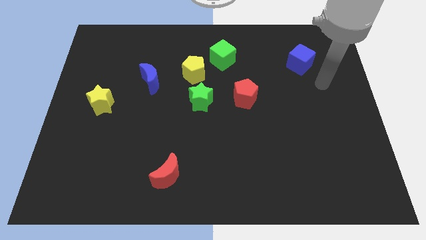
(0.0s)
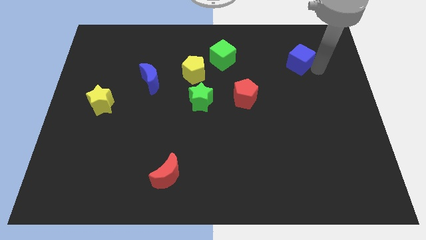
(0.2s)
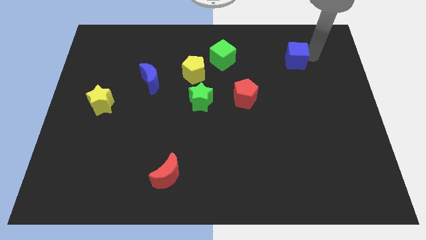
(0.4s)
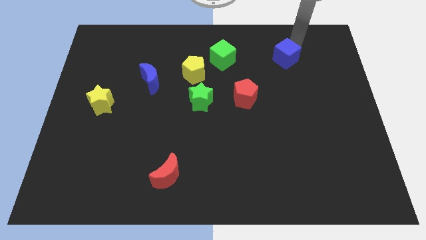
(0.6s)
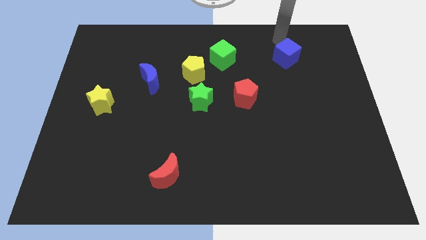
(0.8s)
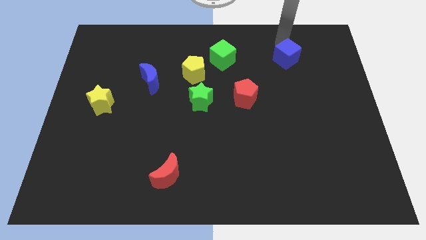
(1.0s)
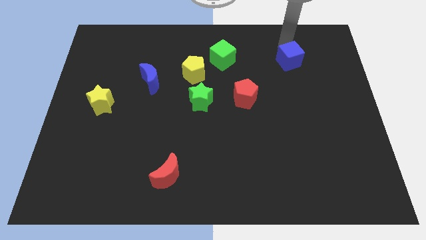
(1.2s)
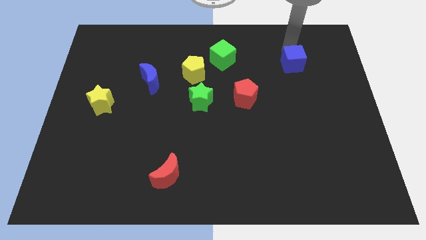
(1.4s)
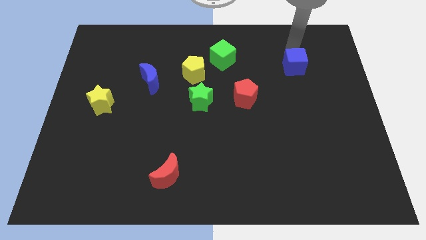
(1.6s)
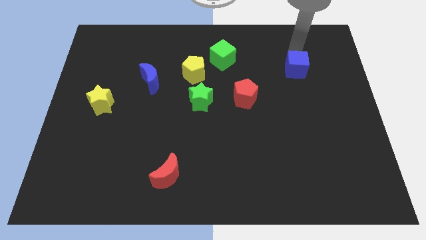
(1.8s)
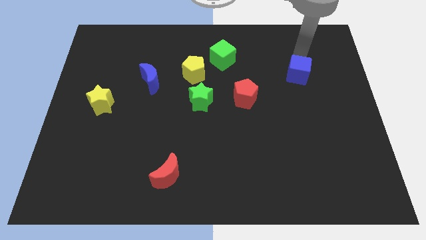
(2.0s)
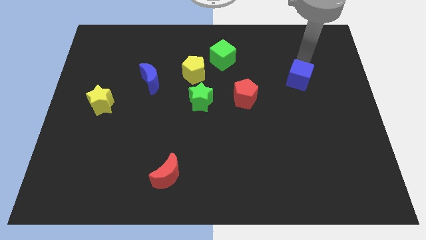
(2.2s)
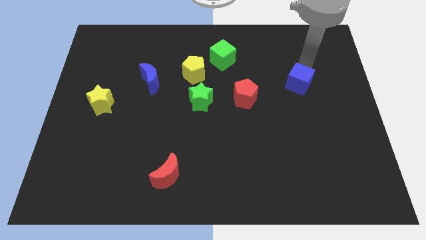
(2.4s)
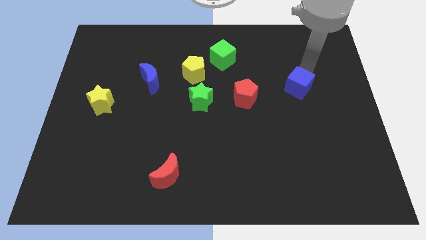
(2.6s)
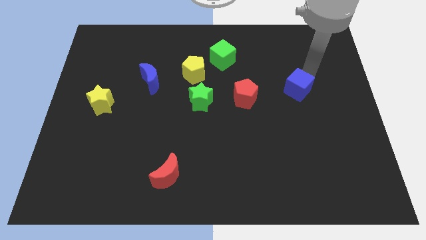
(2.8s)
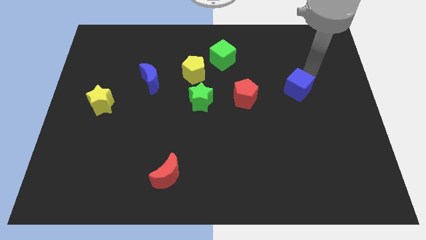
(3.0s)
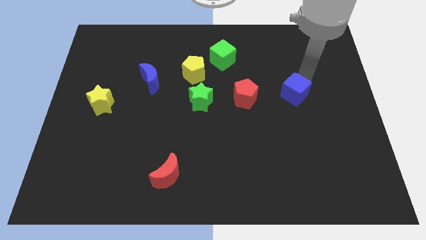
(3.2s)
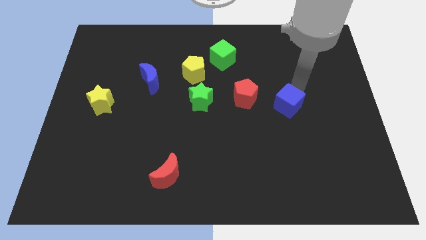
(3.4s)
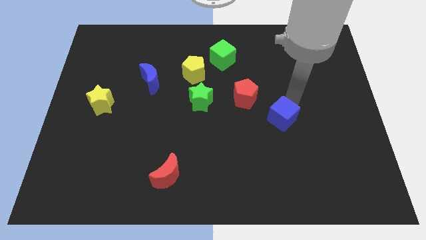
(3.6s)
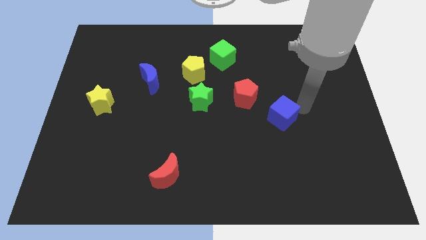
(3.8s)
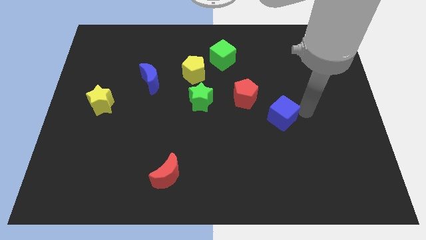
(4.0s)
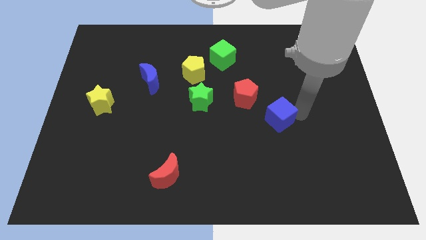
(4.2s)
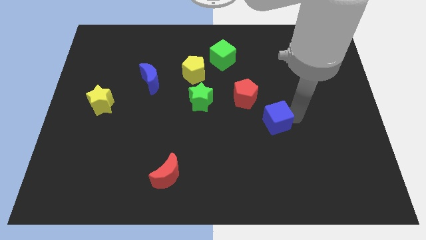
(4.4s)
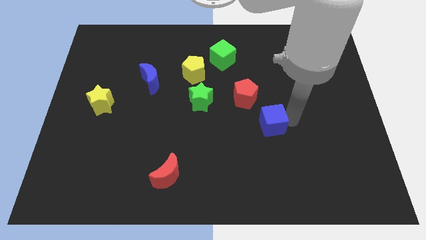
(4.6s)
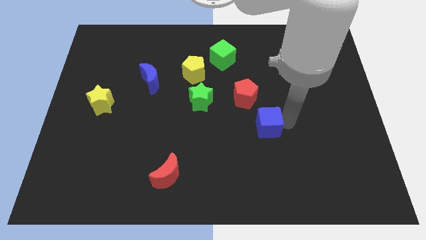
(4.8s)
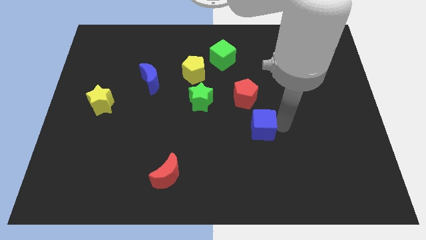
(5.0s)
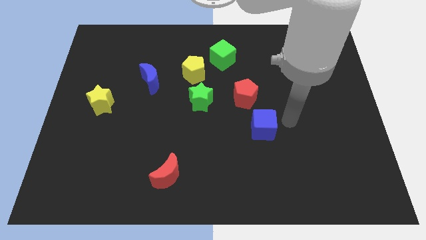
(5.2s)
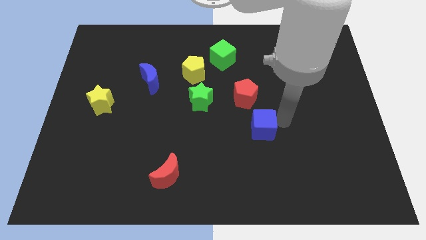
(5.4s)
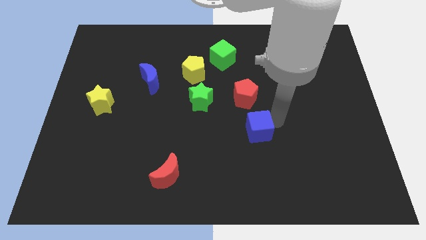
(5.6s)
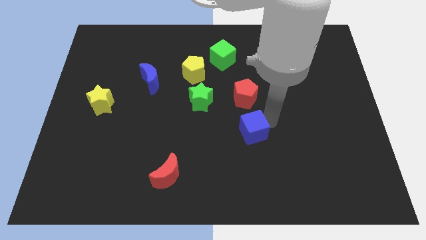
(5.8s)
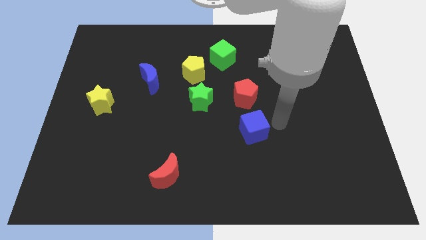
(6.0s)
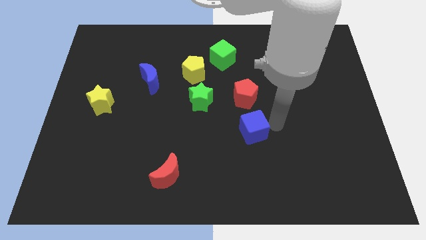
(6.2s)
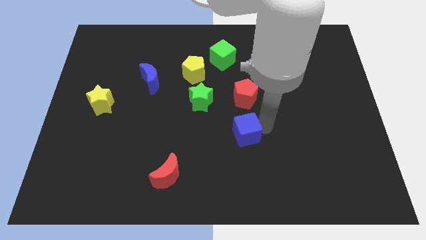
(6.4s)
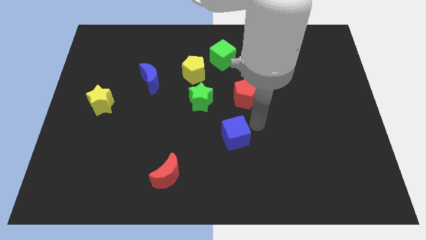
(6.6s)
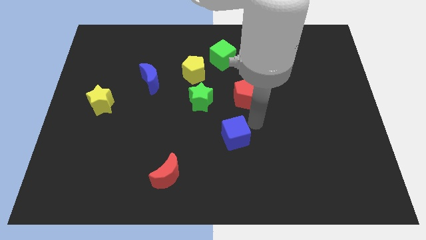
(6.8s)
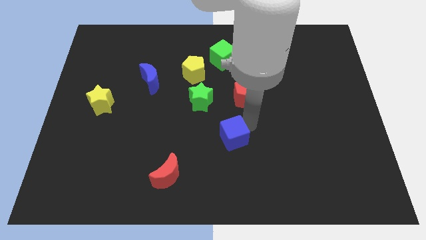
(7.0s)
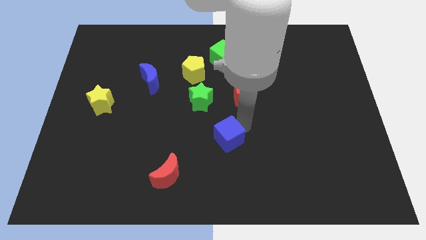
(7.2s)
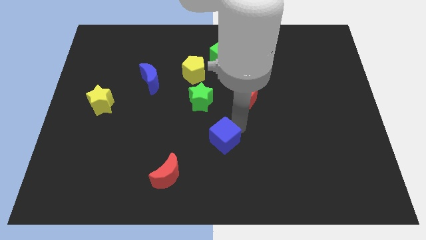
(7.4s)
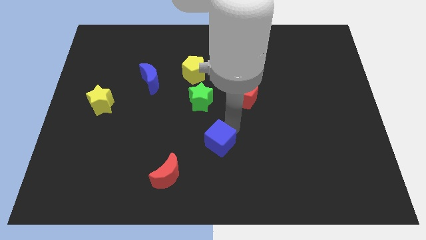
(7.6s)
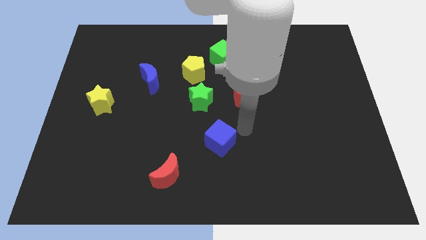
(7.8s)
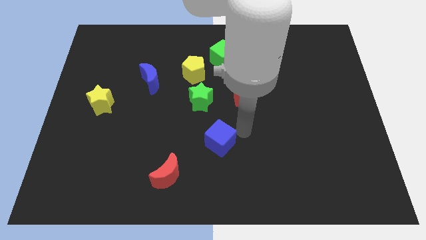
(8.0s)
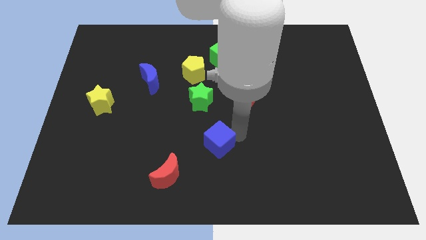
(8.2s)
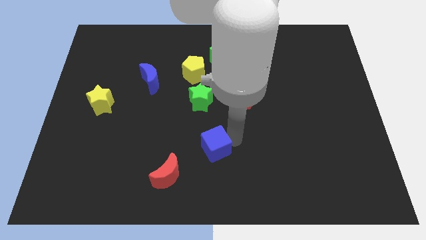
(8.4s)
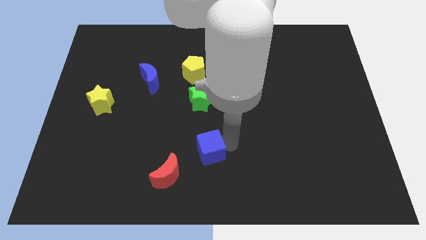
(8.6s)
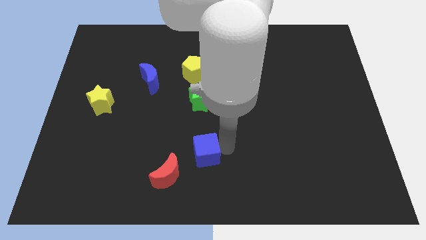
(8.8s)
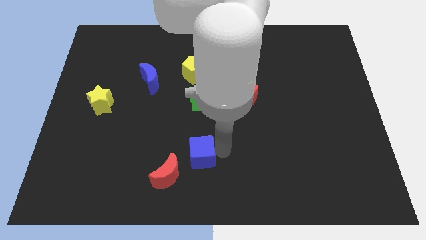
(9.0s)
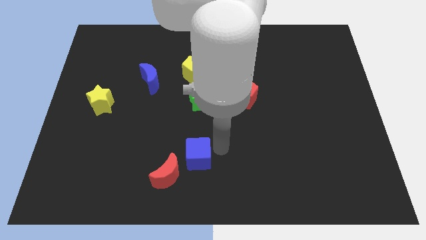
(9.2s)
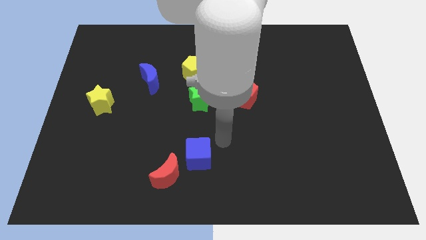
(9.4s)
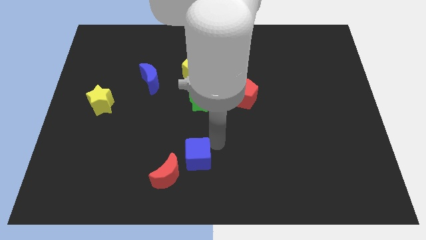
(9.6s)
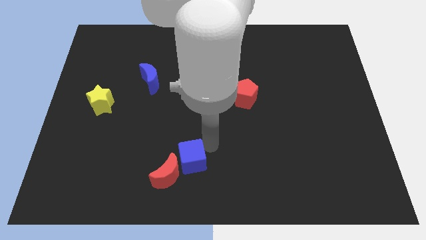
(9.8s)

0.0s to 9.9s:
push the blue cube to the red moon

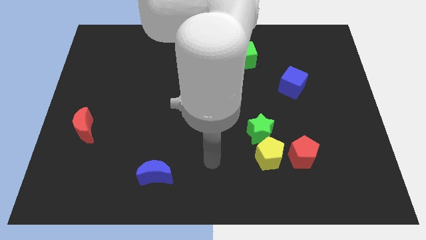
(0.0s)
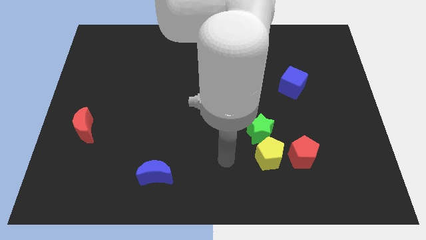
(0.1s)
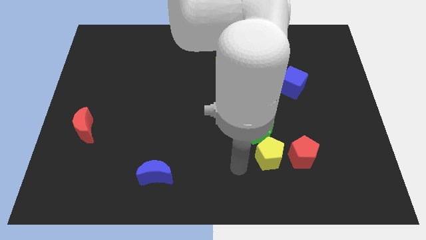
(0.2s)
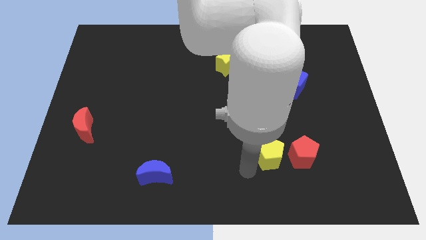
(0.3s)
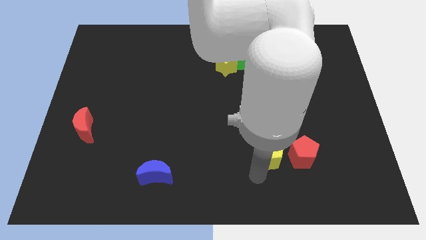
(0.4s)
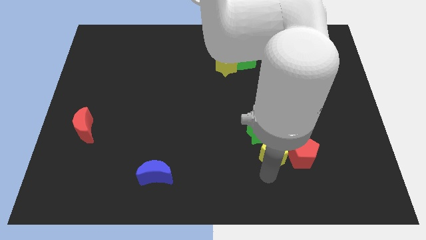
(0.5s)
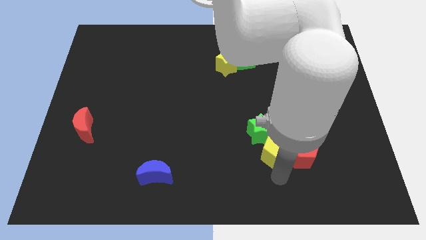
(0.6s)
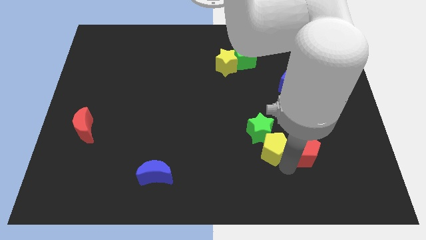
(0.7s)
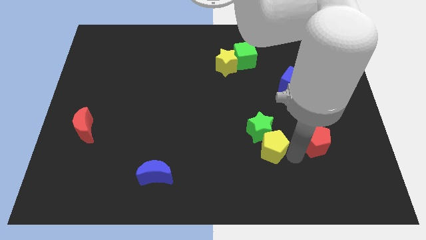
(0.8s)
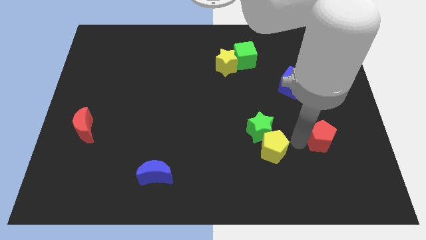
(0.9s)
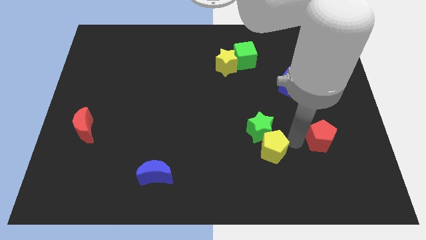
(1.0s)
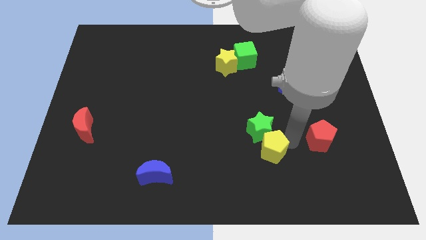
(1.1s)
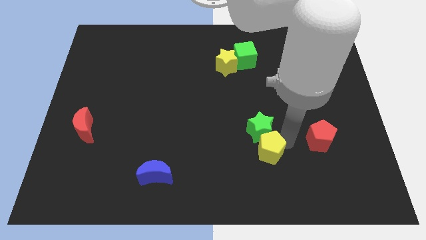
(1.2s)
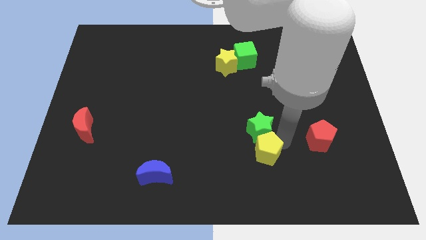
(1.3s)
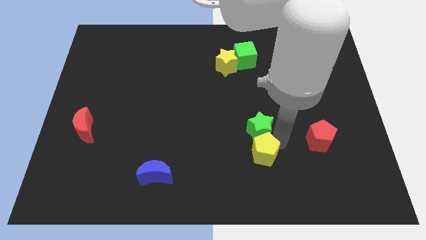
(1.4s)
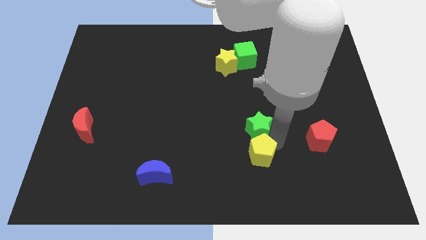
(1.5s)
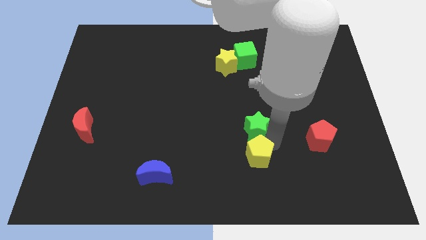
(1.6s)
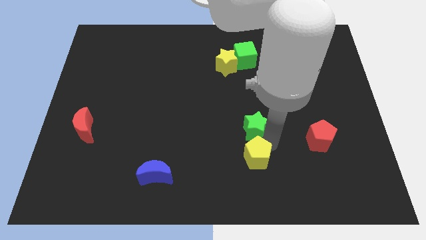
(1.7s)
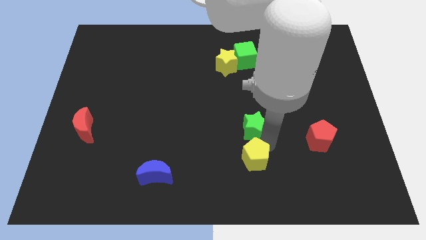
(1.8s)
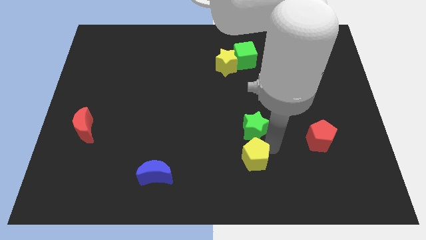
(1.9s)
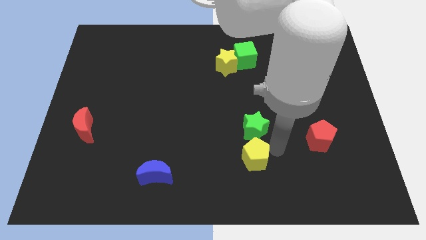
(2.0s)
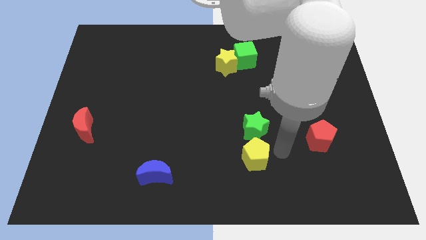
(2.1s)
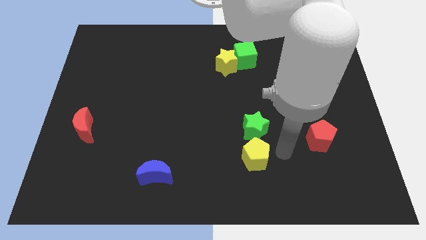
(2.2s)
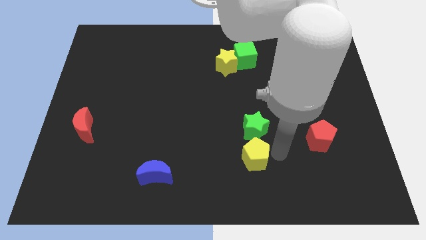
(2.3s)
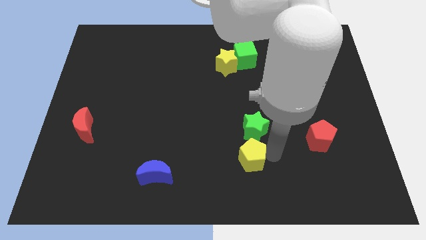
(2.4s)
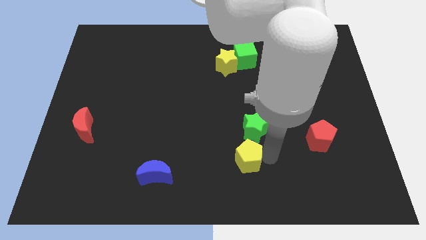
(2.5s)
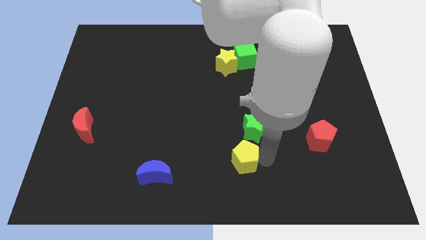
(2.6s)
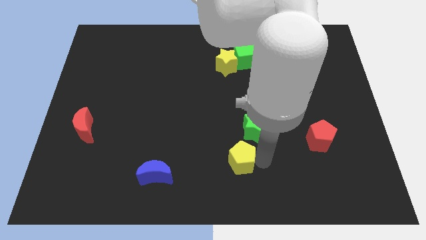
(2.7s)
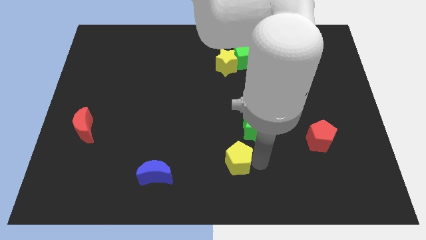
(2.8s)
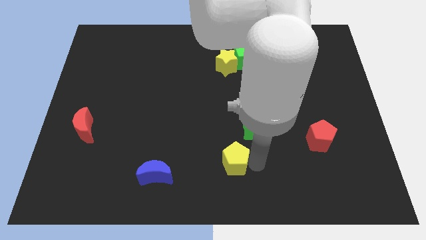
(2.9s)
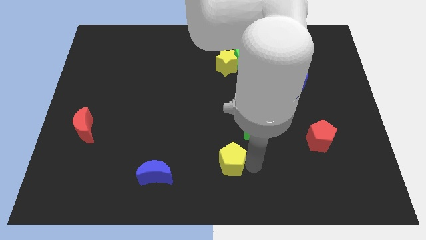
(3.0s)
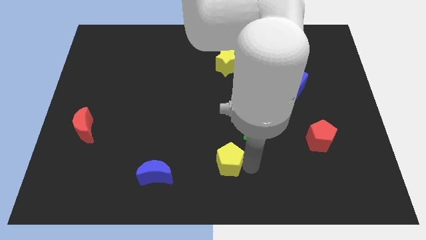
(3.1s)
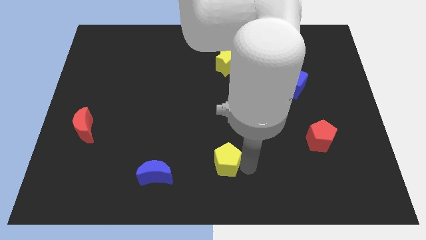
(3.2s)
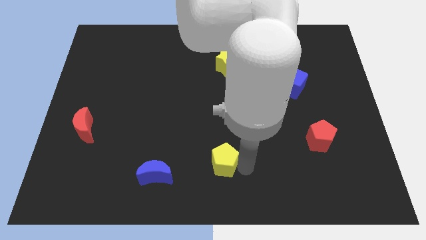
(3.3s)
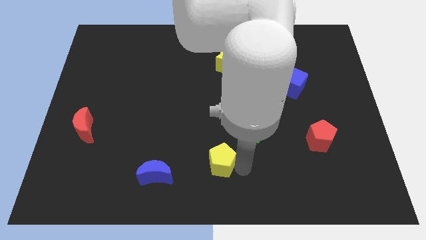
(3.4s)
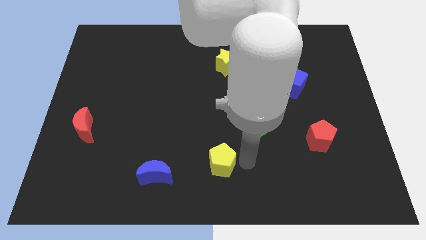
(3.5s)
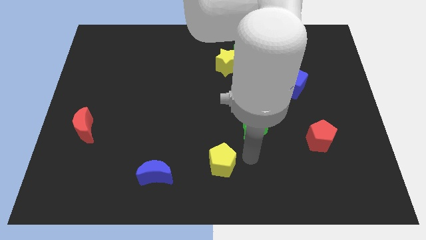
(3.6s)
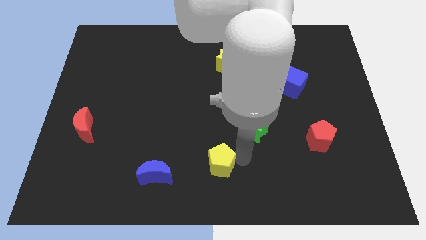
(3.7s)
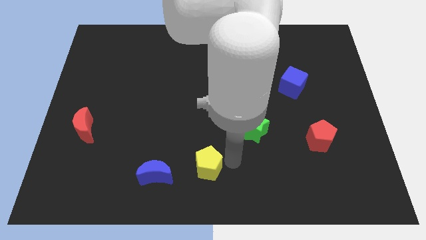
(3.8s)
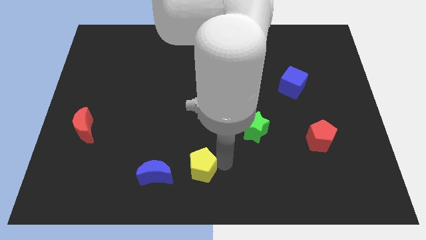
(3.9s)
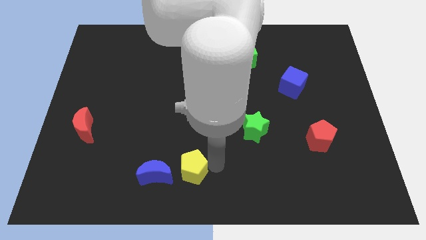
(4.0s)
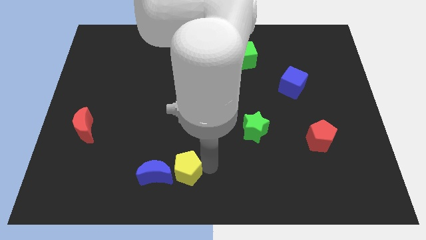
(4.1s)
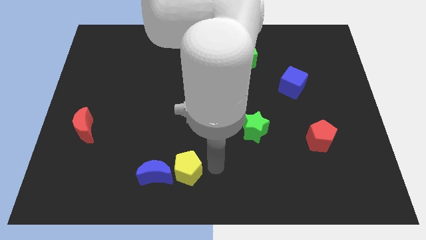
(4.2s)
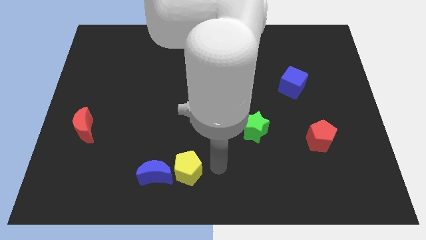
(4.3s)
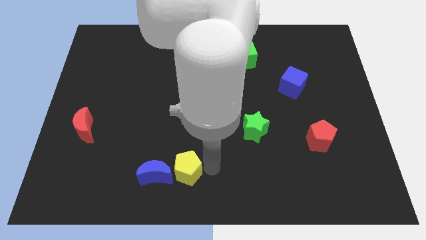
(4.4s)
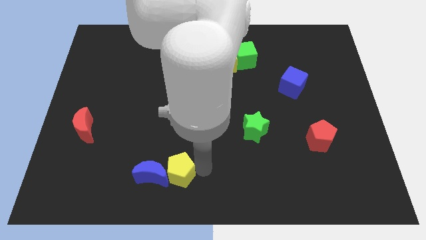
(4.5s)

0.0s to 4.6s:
put the yellow pentagon next to the blue moon
